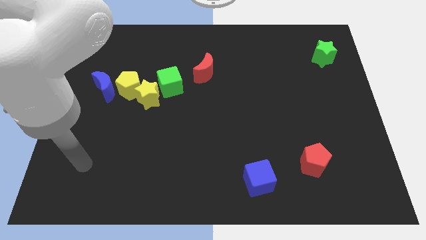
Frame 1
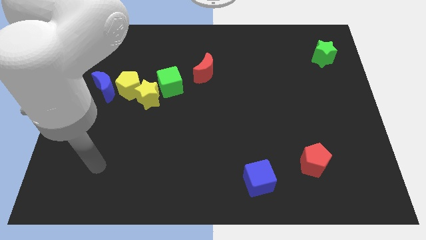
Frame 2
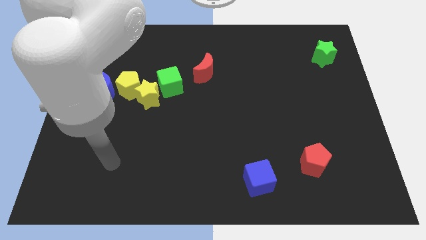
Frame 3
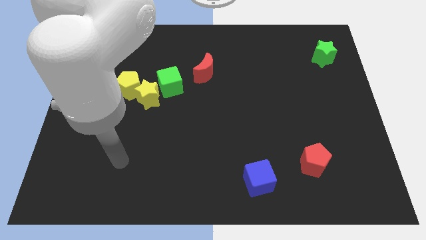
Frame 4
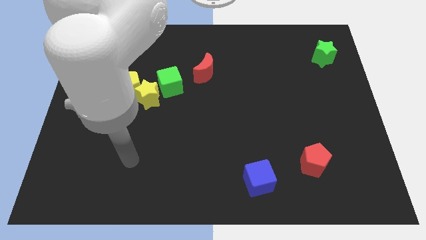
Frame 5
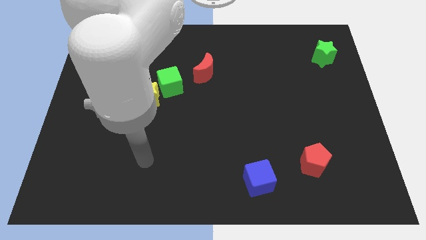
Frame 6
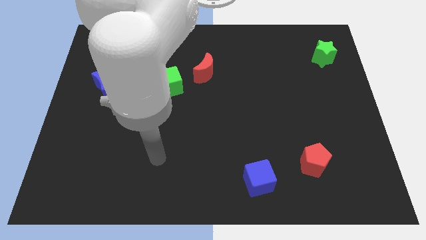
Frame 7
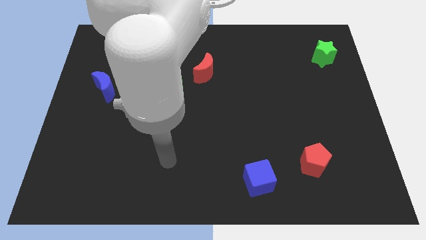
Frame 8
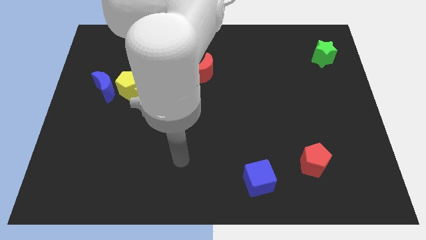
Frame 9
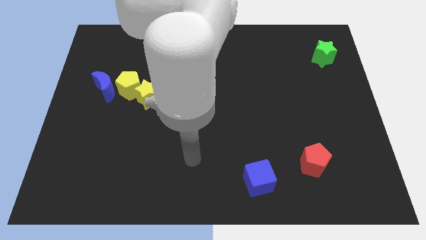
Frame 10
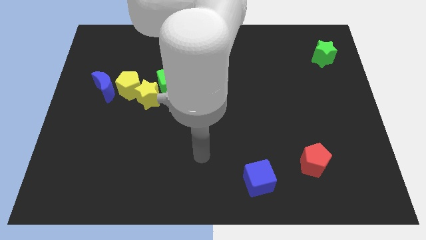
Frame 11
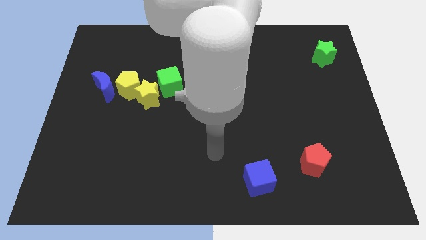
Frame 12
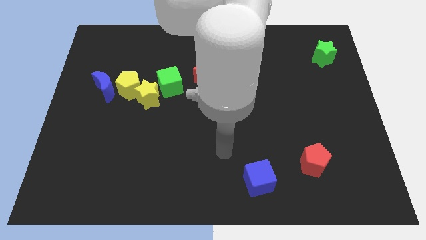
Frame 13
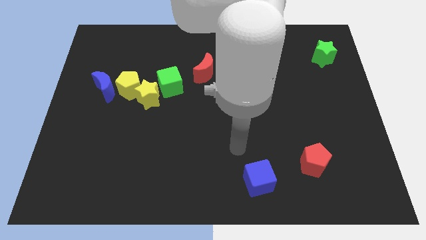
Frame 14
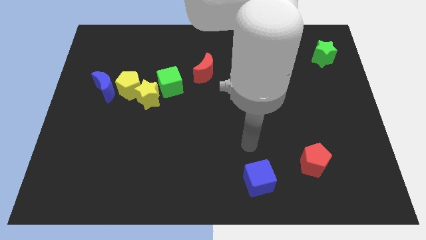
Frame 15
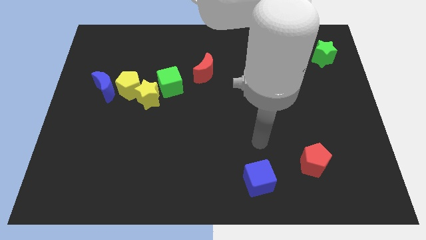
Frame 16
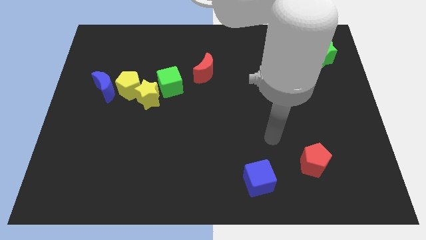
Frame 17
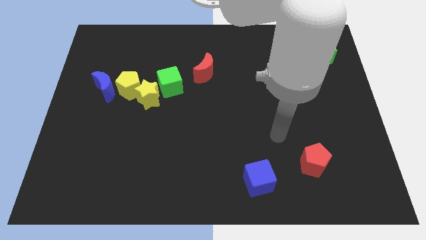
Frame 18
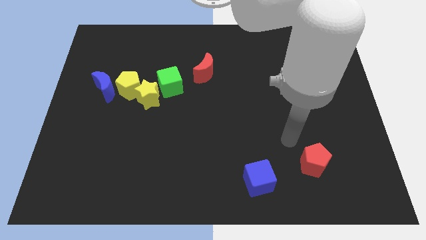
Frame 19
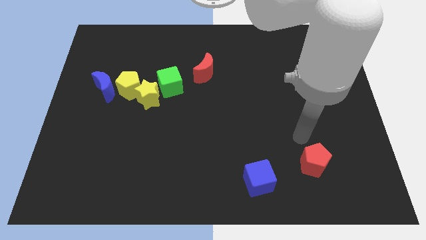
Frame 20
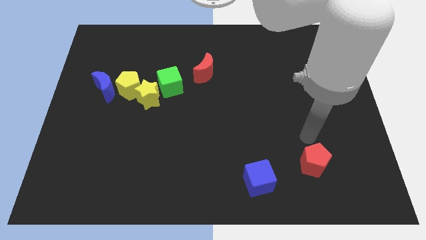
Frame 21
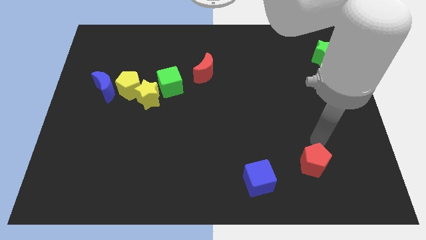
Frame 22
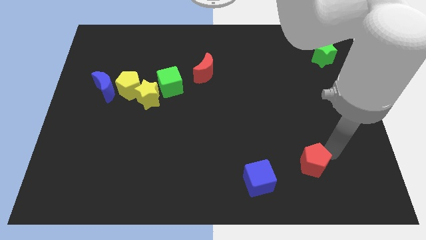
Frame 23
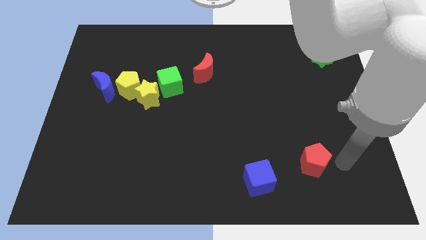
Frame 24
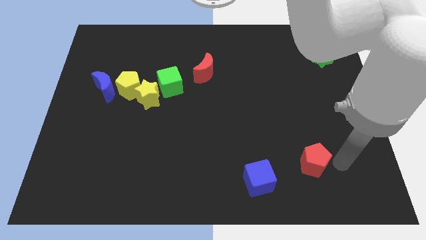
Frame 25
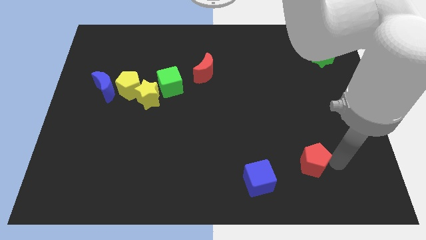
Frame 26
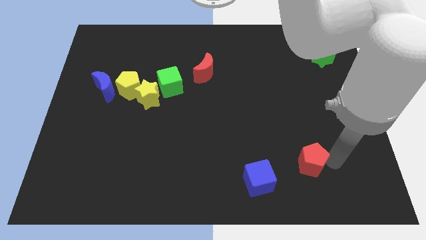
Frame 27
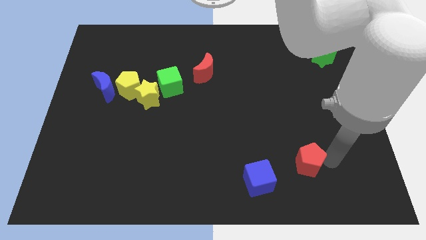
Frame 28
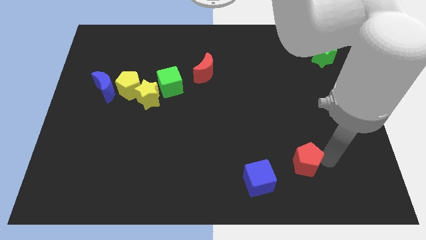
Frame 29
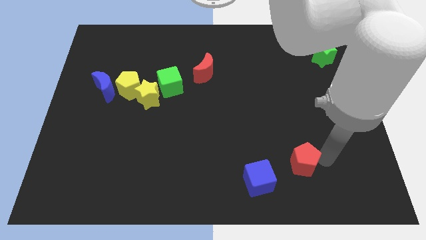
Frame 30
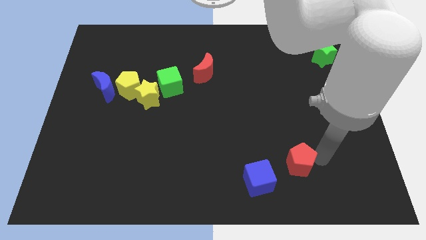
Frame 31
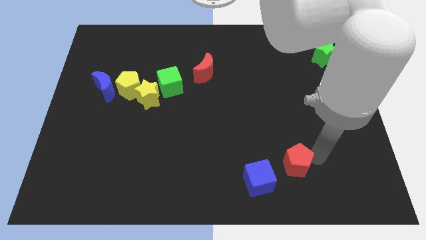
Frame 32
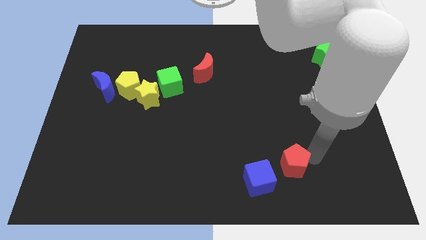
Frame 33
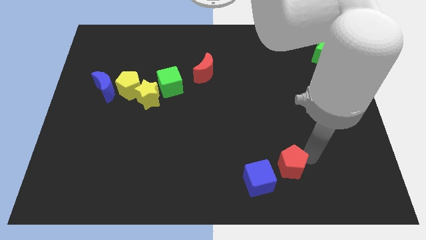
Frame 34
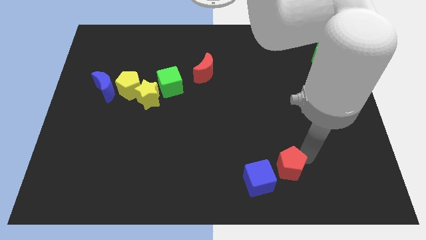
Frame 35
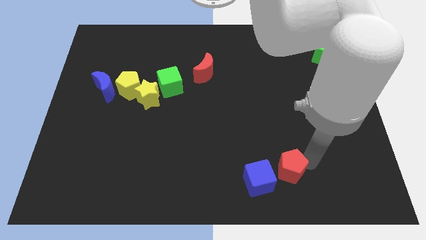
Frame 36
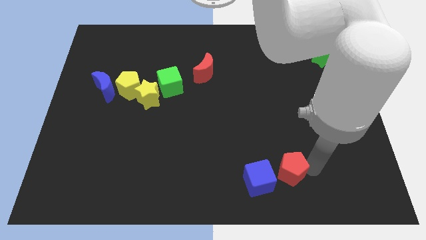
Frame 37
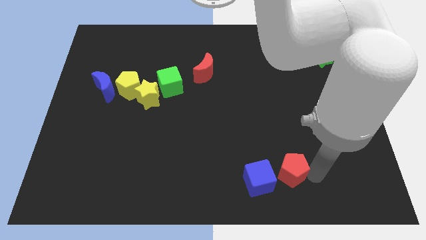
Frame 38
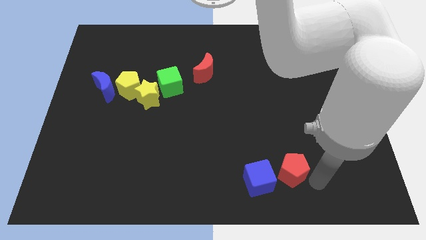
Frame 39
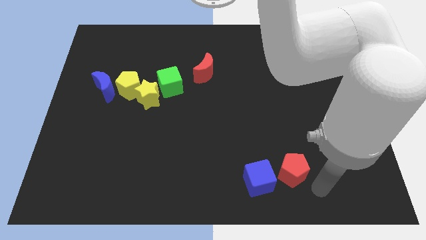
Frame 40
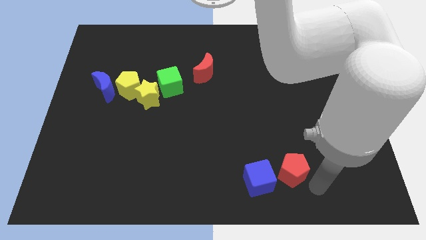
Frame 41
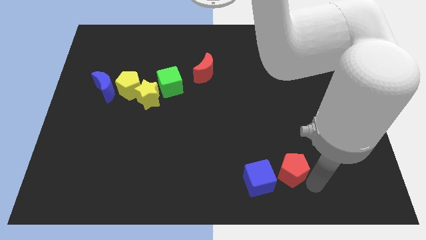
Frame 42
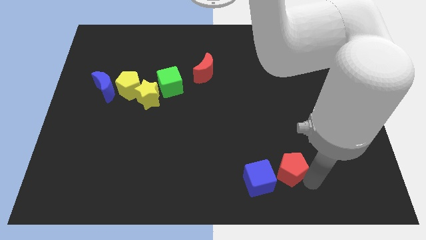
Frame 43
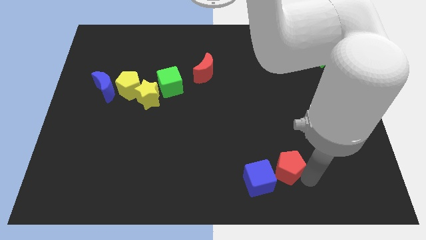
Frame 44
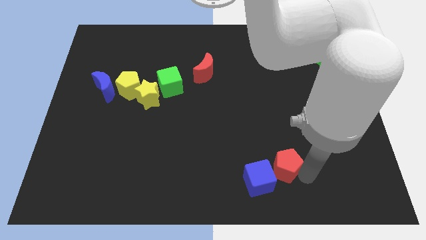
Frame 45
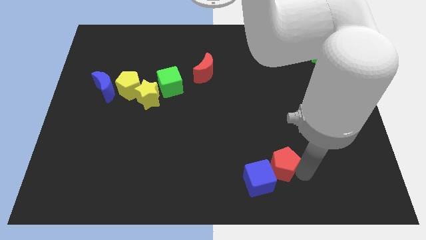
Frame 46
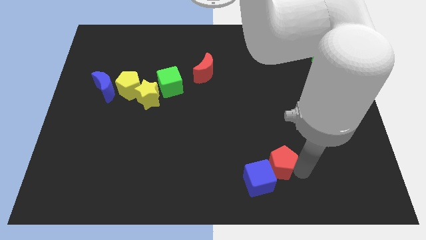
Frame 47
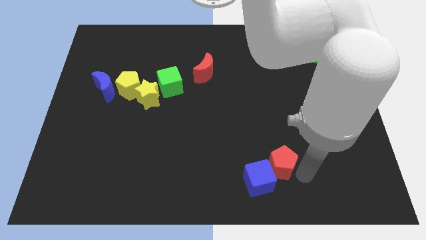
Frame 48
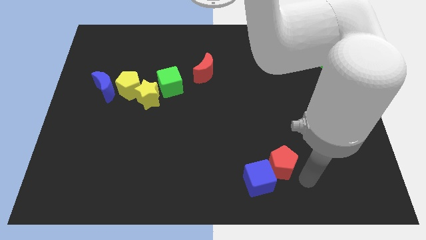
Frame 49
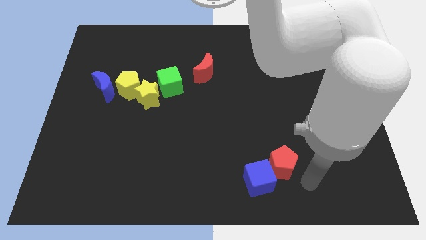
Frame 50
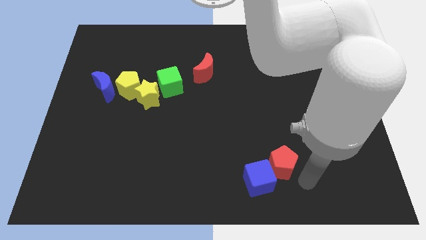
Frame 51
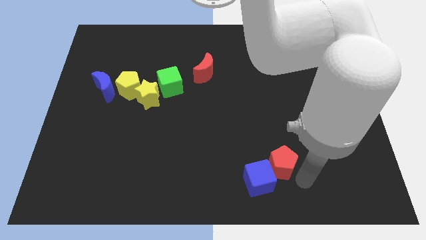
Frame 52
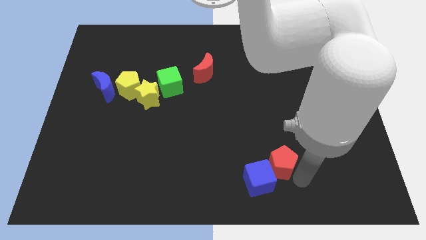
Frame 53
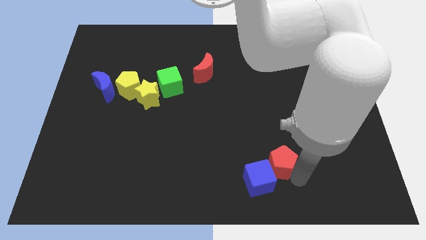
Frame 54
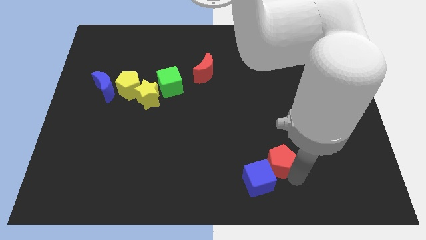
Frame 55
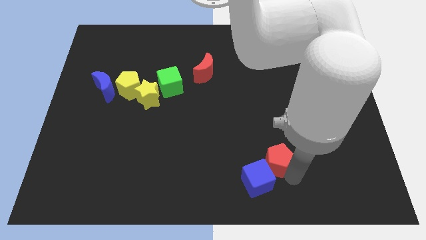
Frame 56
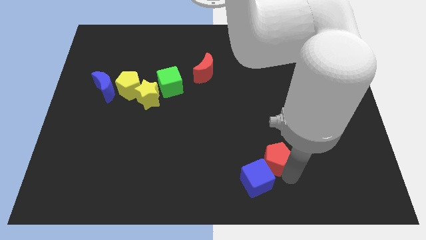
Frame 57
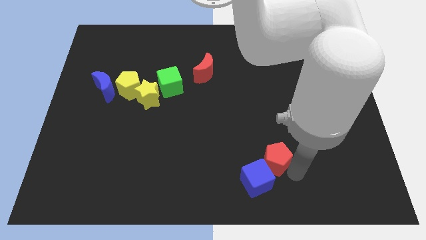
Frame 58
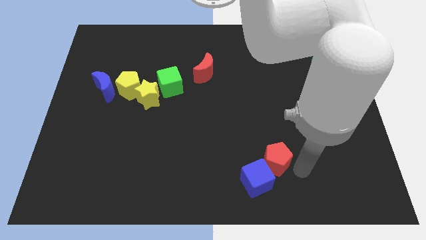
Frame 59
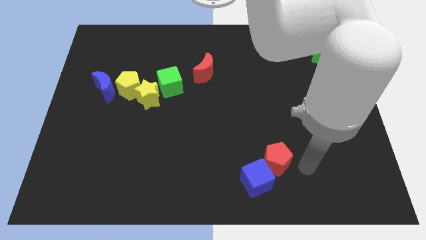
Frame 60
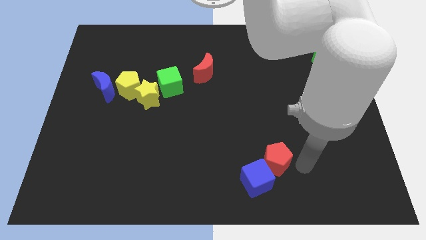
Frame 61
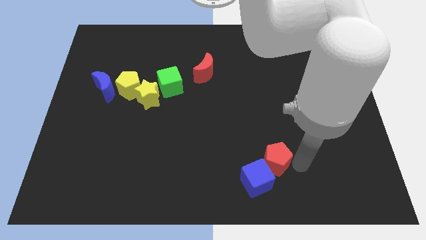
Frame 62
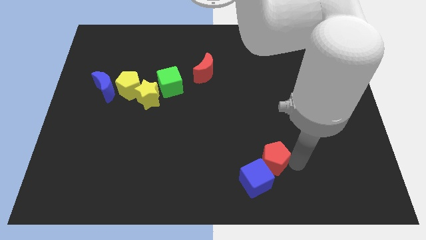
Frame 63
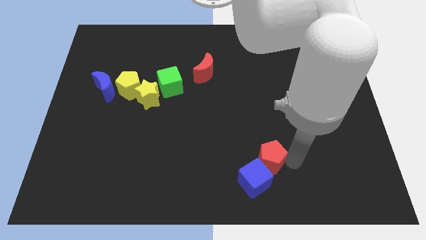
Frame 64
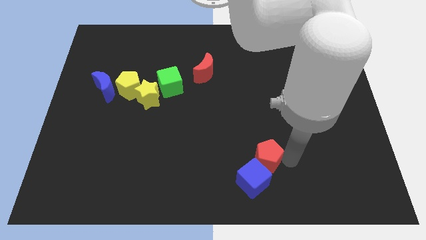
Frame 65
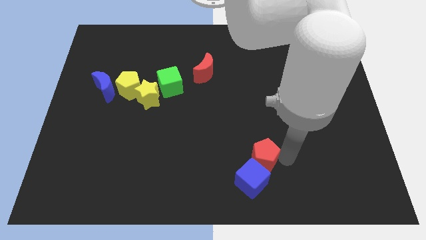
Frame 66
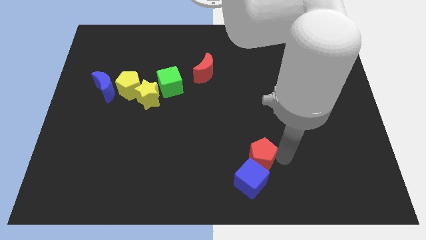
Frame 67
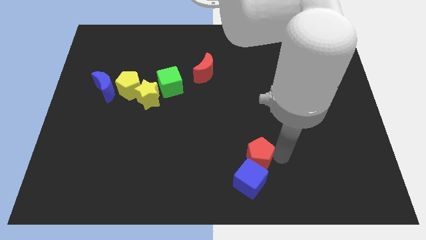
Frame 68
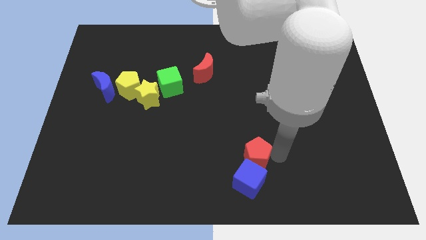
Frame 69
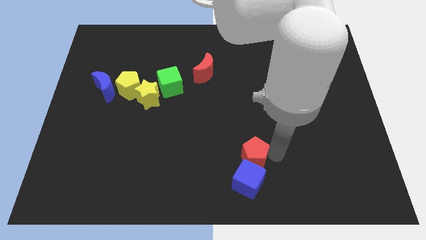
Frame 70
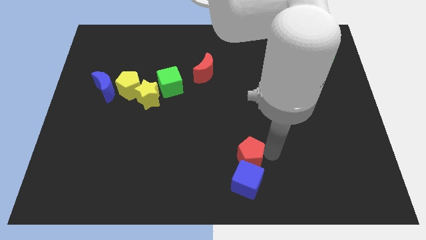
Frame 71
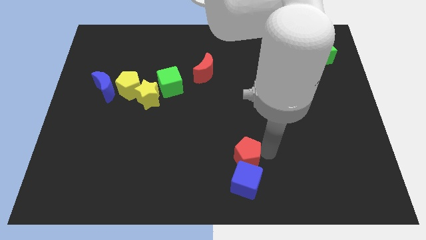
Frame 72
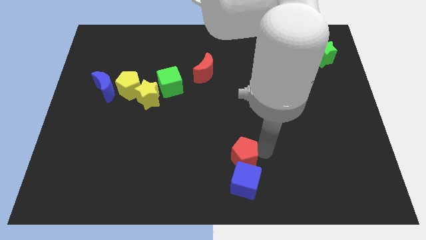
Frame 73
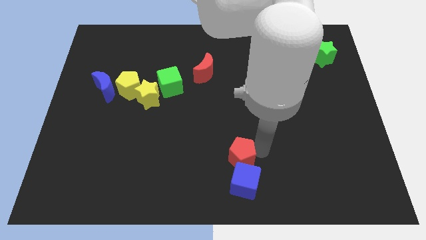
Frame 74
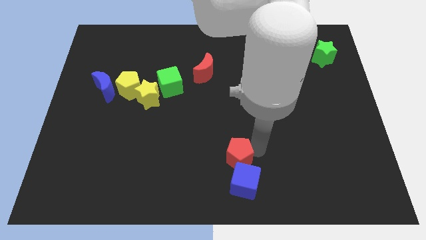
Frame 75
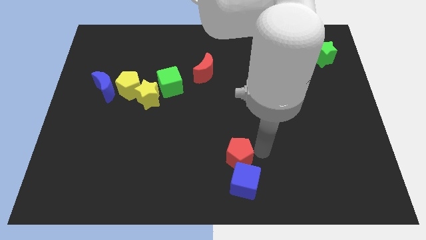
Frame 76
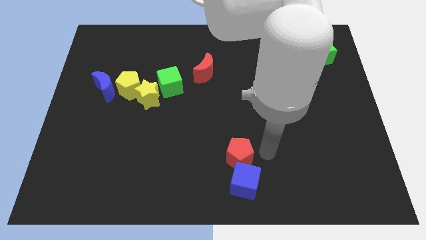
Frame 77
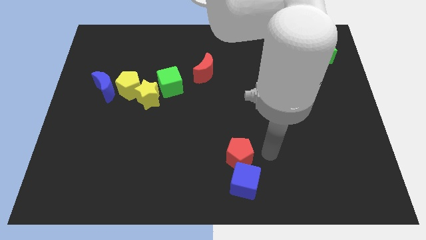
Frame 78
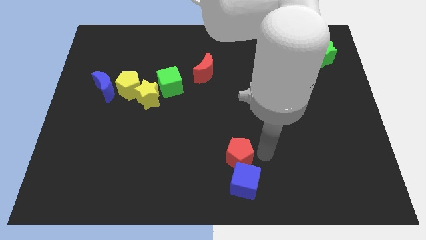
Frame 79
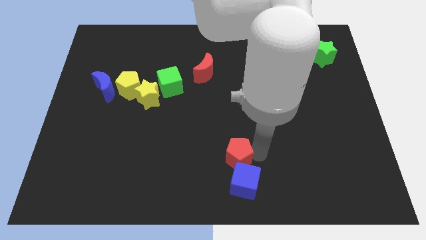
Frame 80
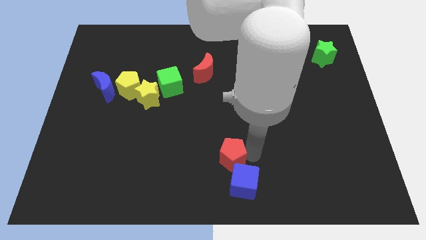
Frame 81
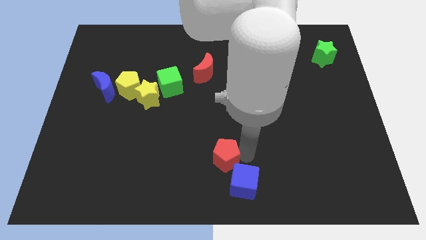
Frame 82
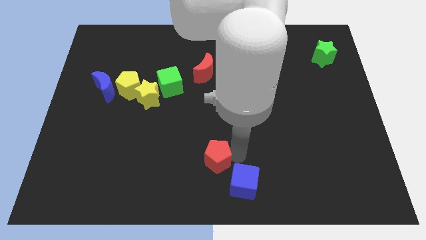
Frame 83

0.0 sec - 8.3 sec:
move the red pentagon to the left
